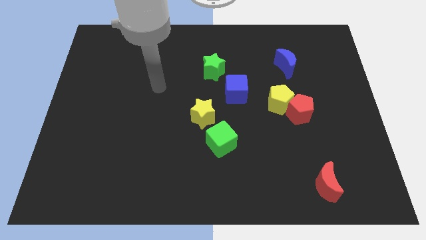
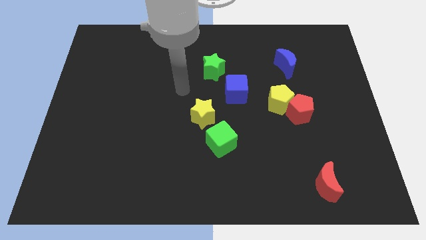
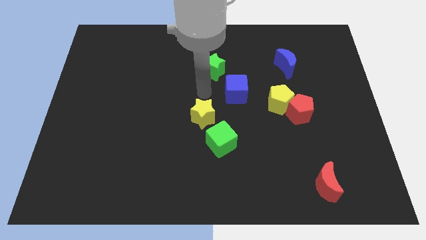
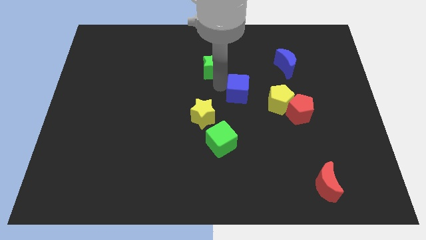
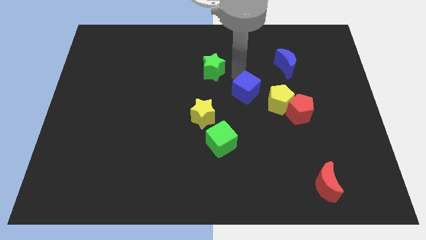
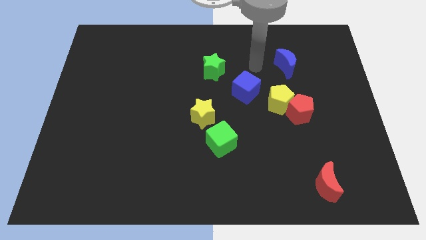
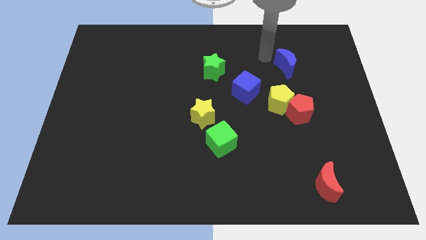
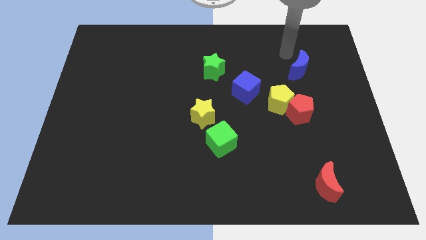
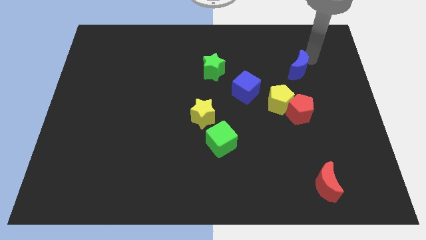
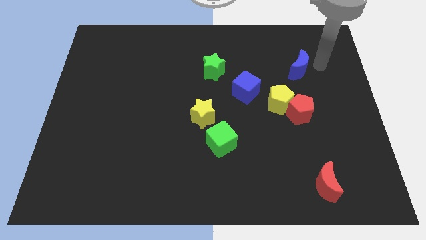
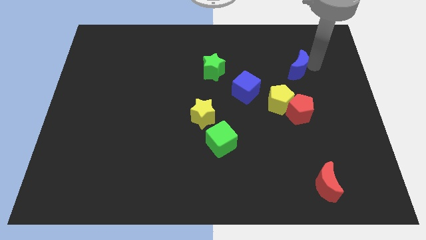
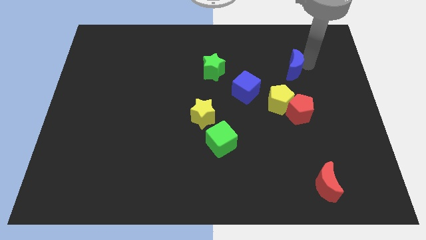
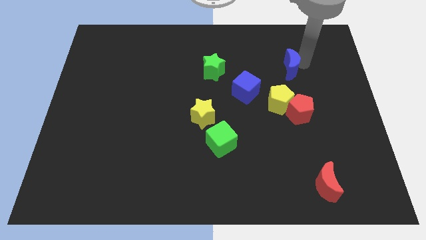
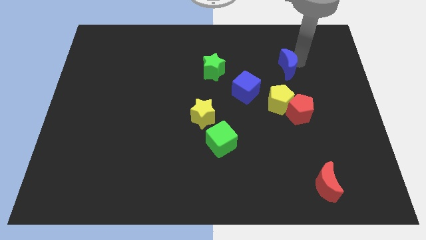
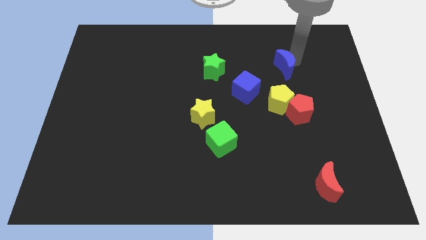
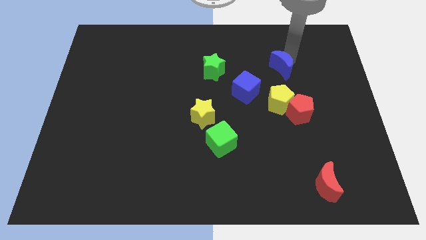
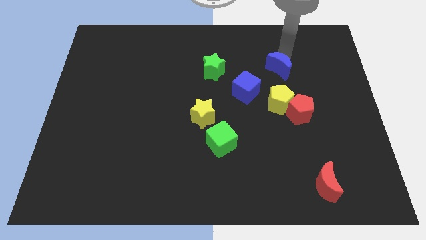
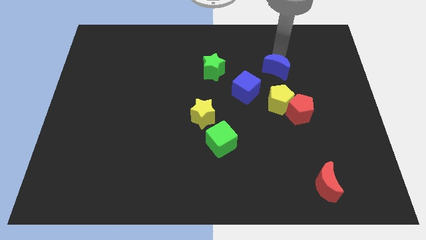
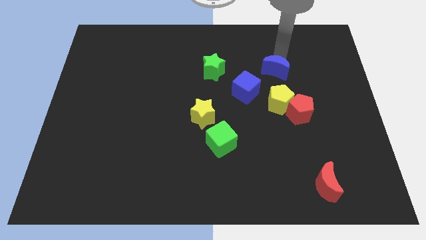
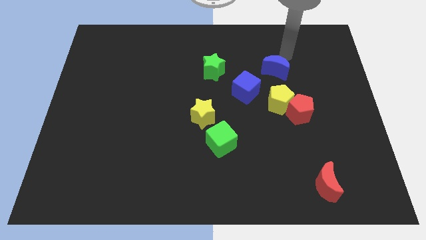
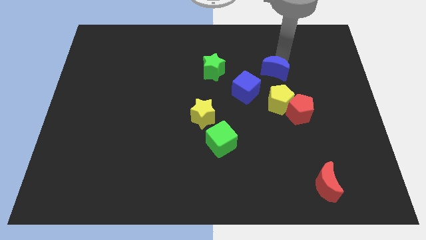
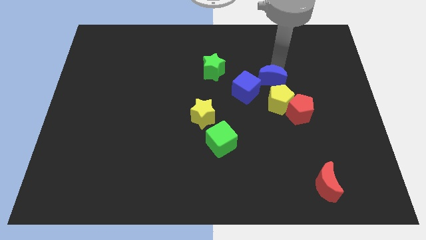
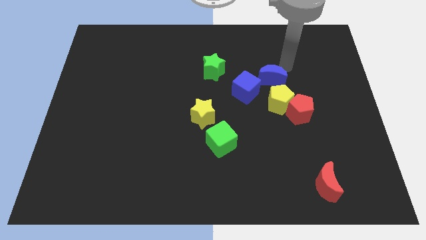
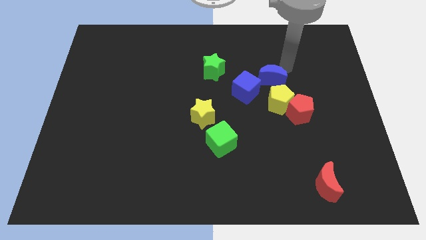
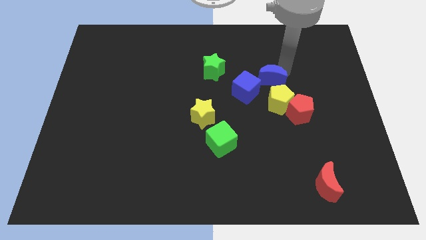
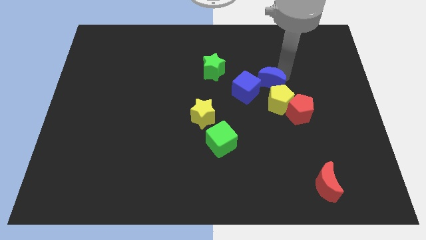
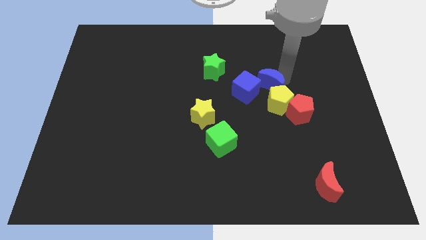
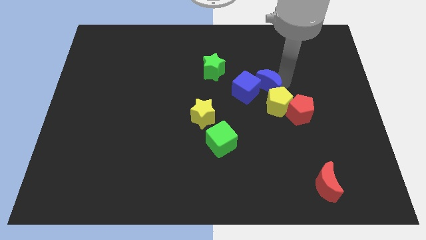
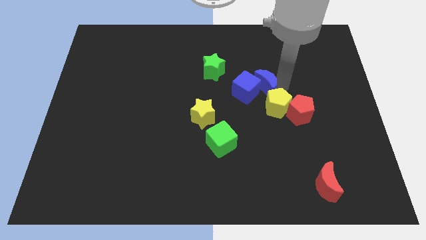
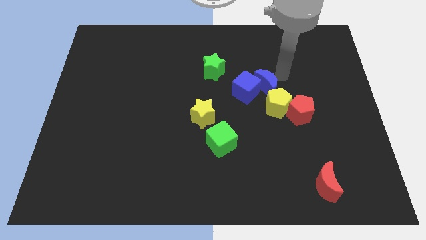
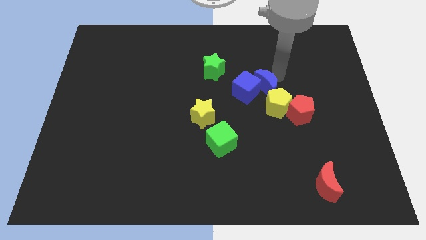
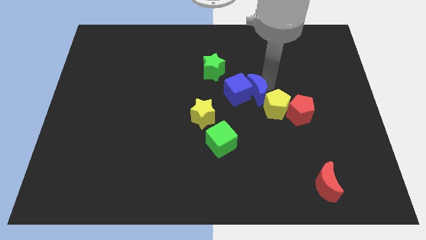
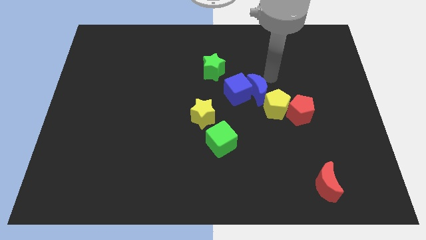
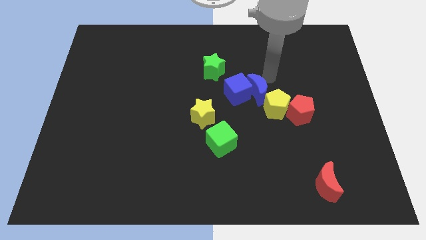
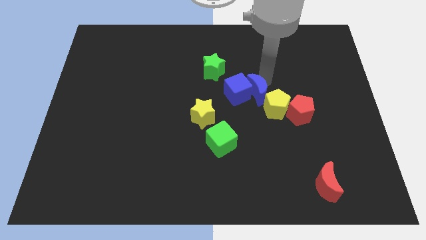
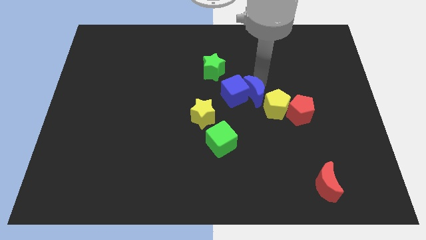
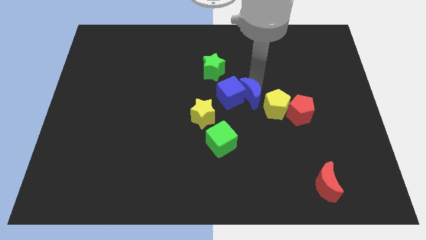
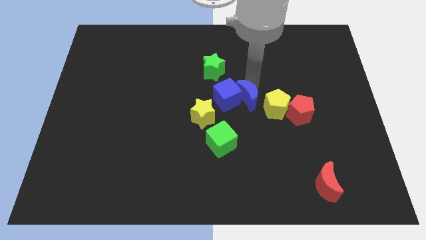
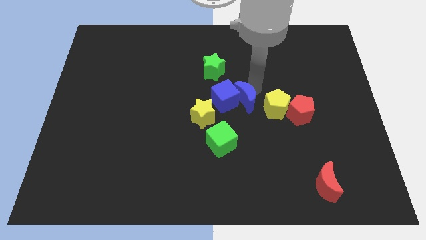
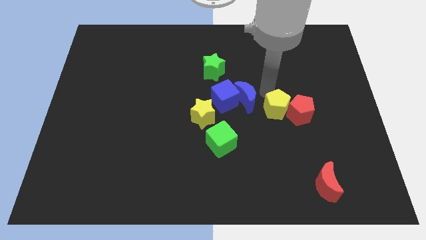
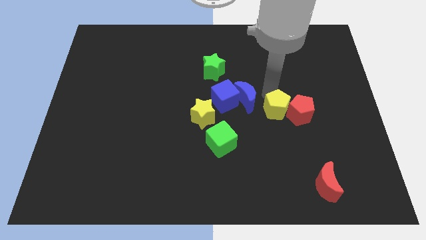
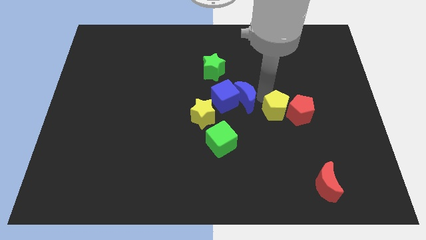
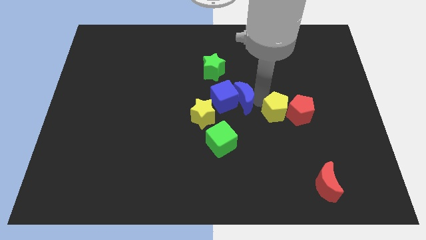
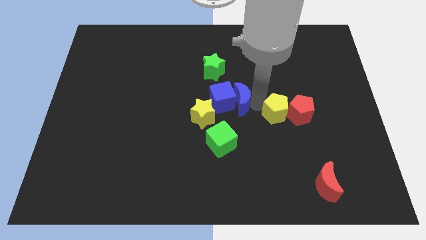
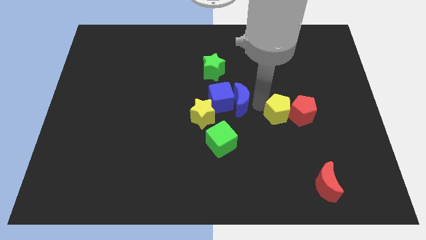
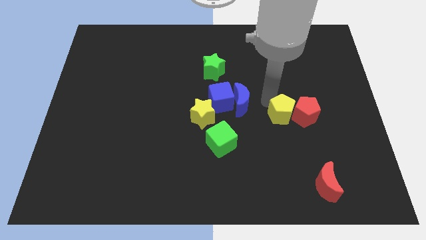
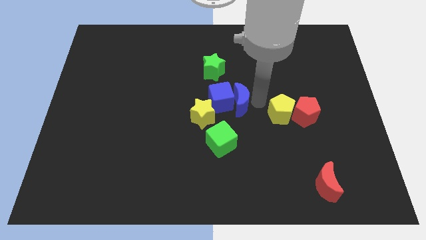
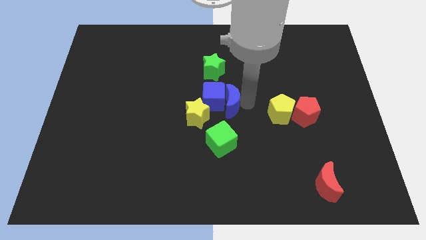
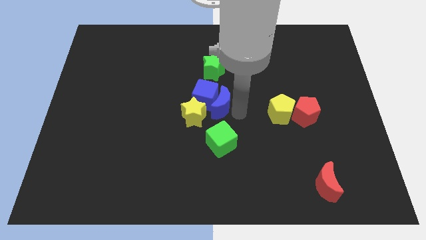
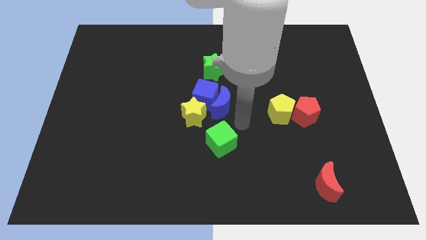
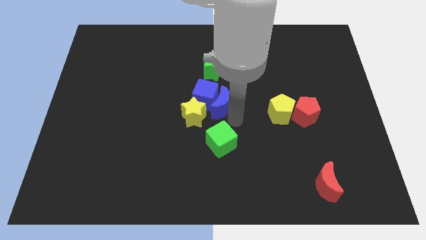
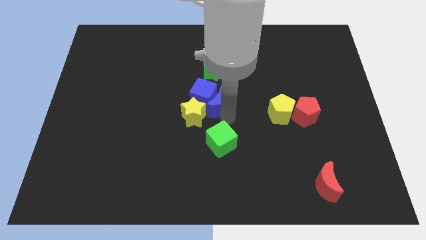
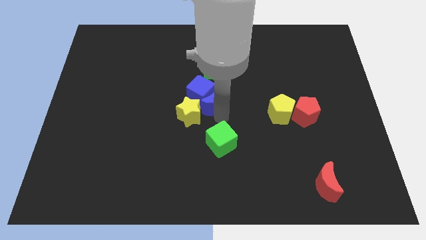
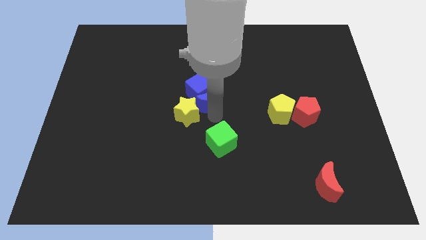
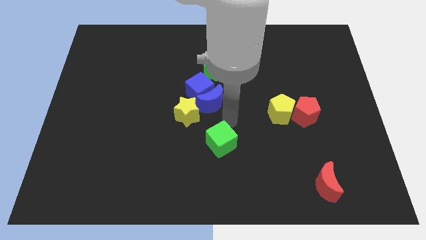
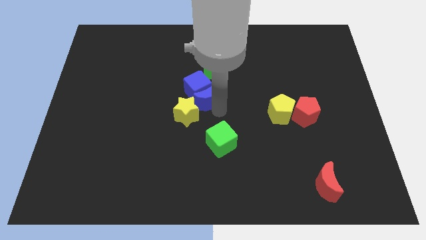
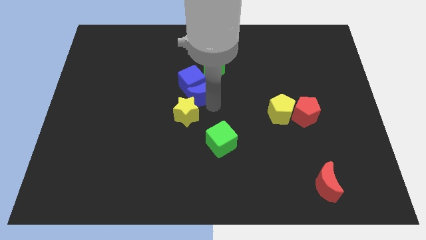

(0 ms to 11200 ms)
move the blue moon to the top of the yellow star
